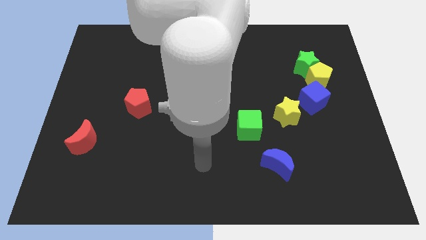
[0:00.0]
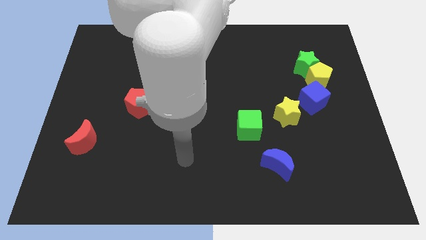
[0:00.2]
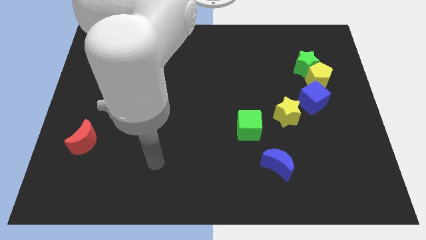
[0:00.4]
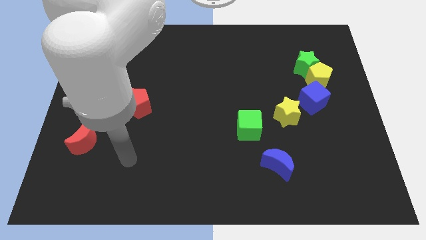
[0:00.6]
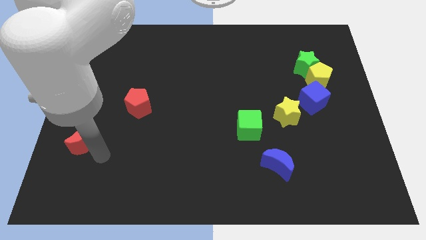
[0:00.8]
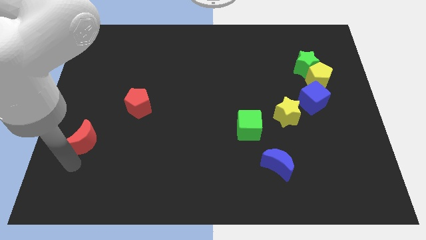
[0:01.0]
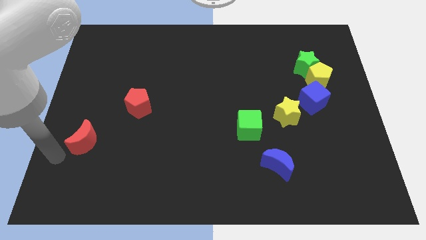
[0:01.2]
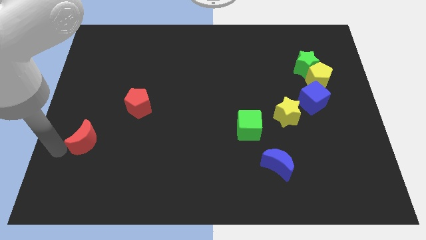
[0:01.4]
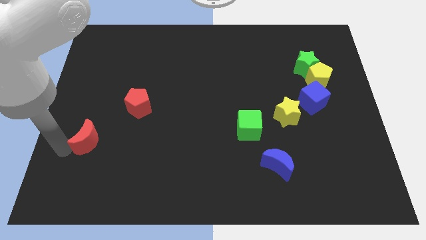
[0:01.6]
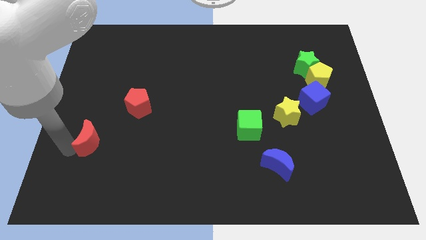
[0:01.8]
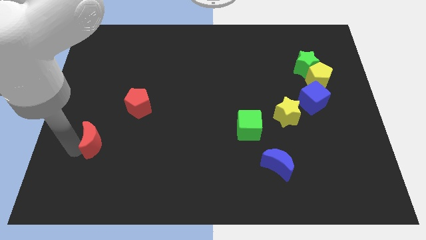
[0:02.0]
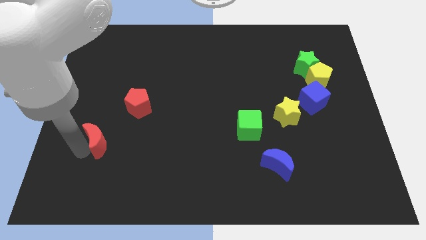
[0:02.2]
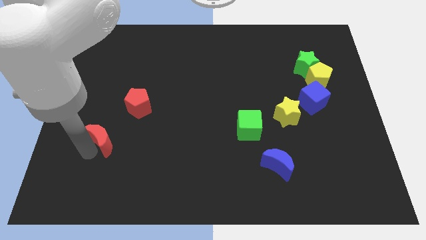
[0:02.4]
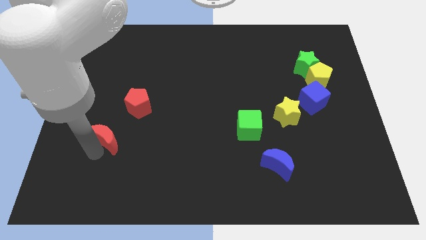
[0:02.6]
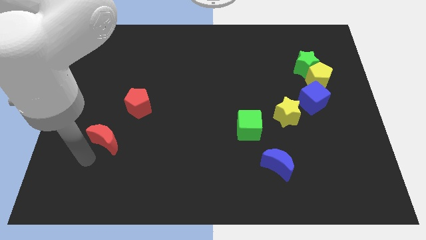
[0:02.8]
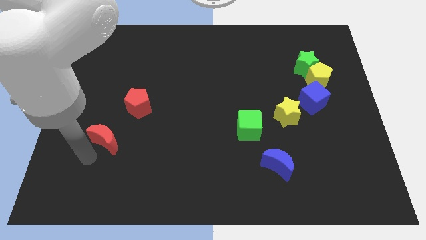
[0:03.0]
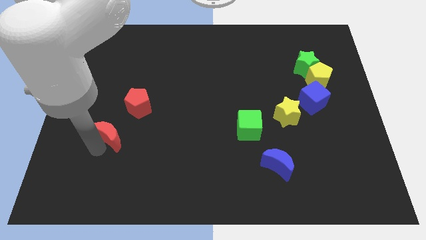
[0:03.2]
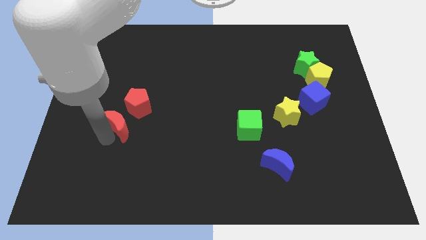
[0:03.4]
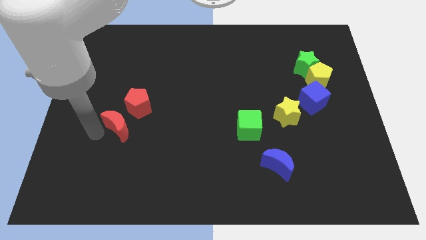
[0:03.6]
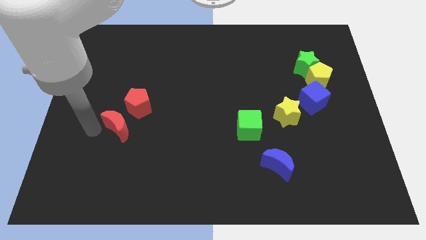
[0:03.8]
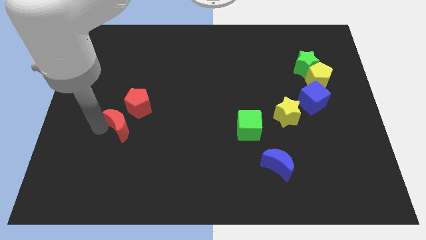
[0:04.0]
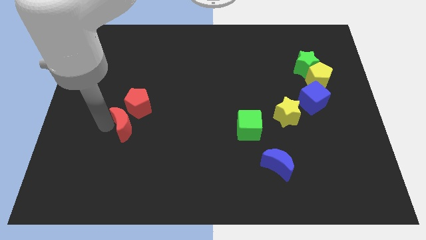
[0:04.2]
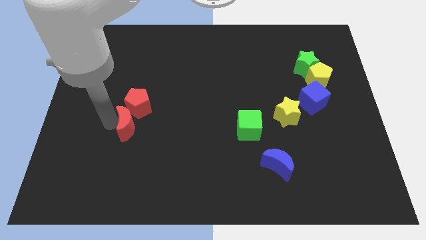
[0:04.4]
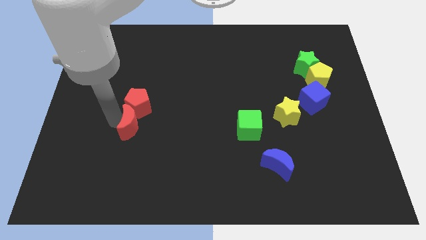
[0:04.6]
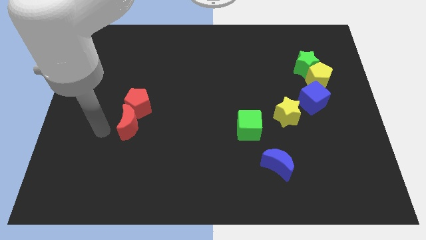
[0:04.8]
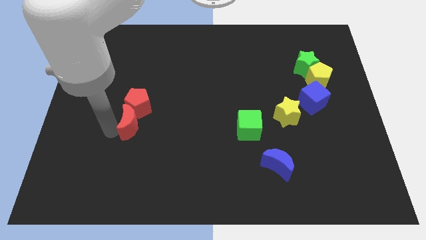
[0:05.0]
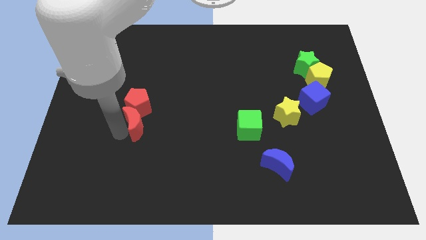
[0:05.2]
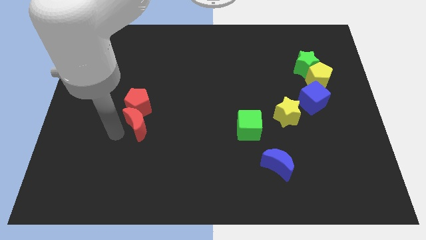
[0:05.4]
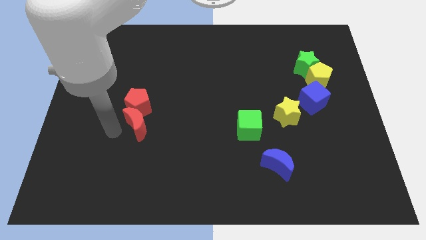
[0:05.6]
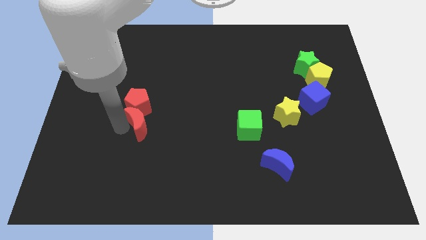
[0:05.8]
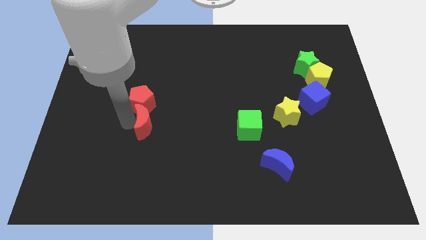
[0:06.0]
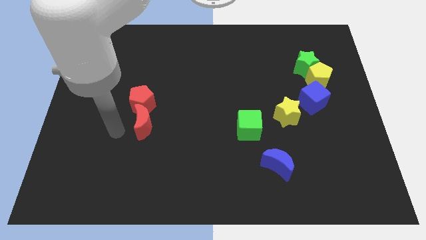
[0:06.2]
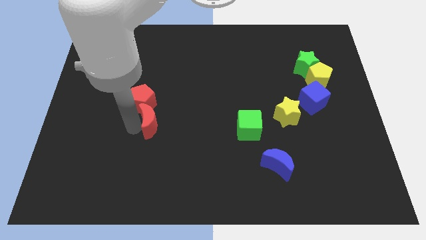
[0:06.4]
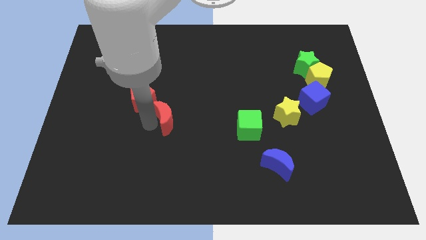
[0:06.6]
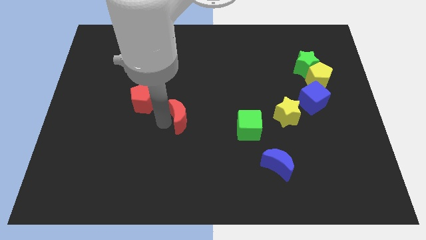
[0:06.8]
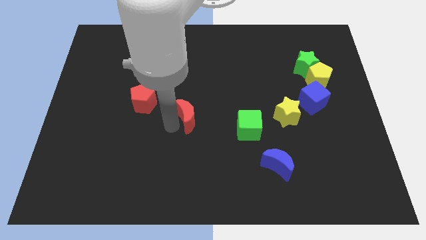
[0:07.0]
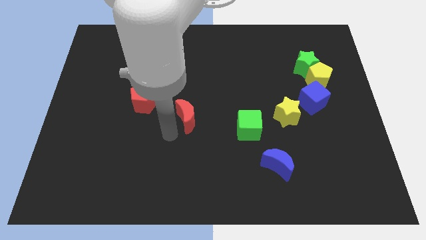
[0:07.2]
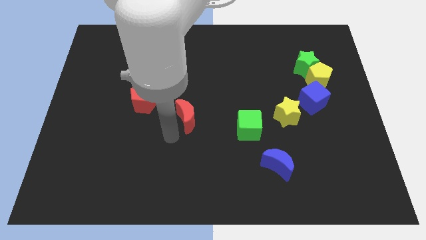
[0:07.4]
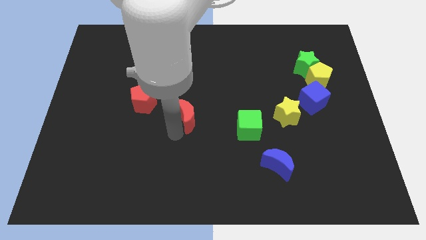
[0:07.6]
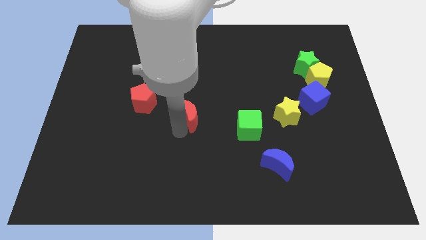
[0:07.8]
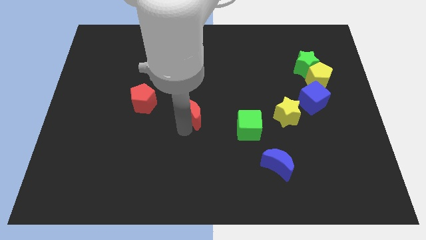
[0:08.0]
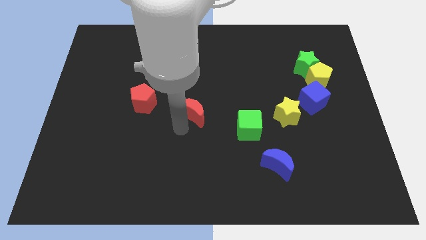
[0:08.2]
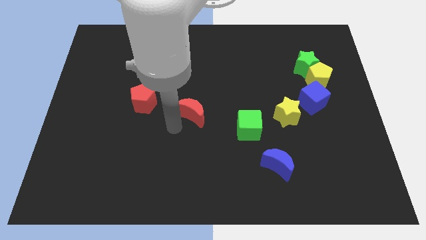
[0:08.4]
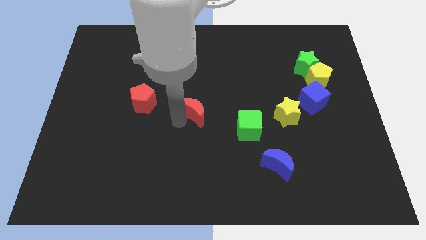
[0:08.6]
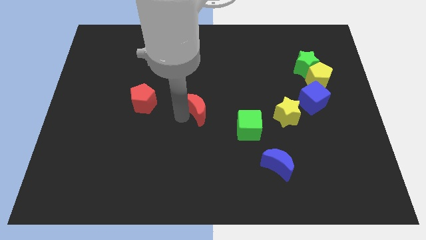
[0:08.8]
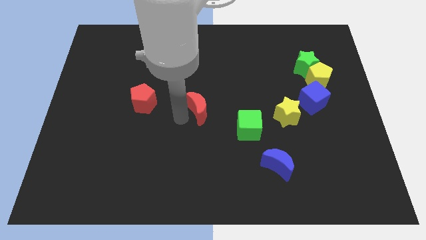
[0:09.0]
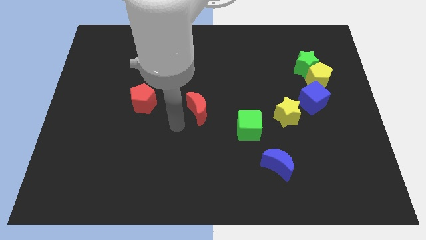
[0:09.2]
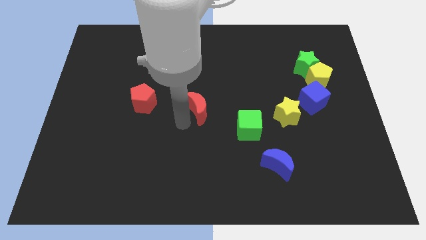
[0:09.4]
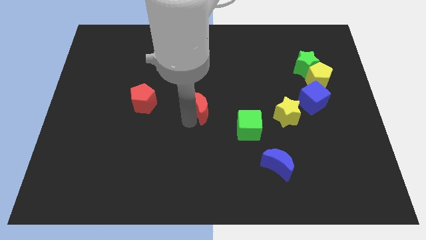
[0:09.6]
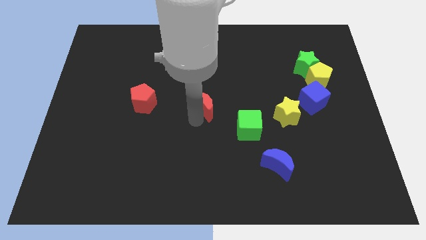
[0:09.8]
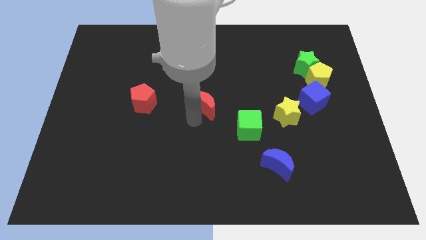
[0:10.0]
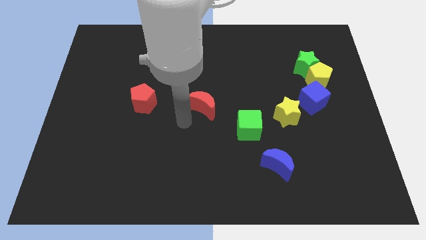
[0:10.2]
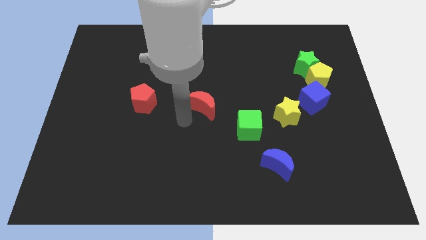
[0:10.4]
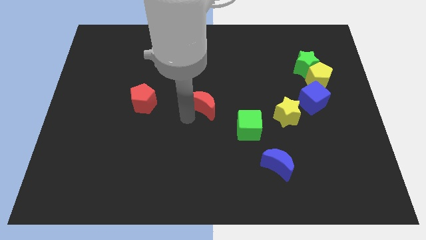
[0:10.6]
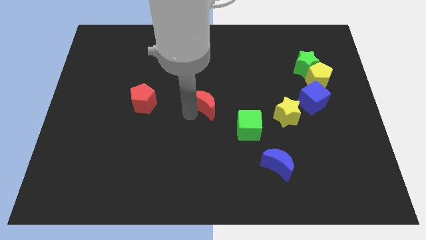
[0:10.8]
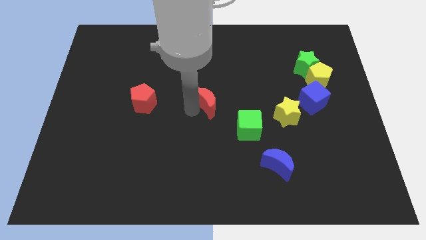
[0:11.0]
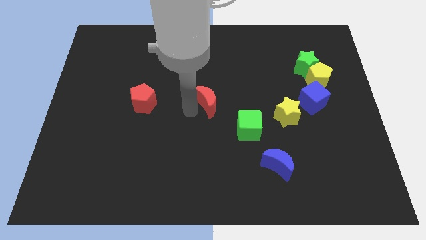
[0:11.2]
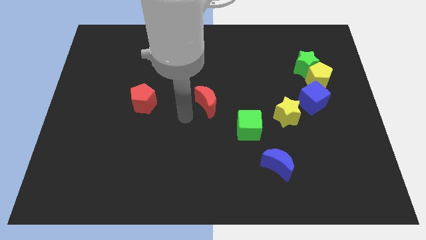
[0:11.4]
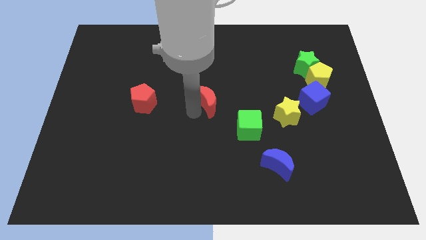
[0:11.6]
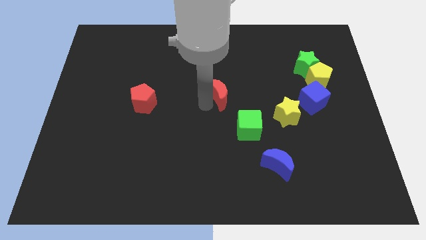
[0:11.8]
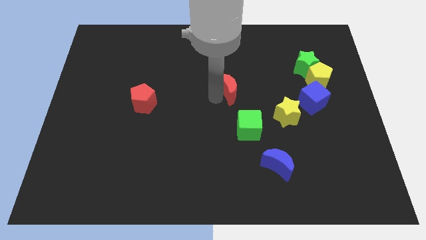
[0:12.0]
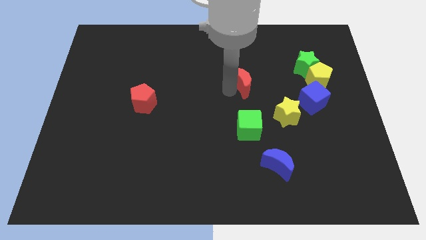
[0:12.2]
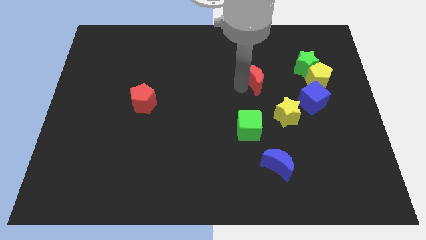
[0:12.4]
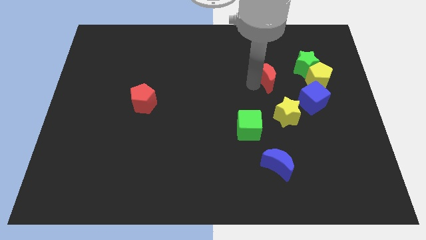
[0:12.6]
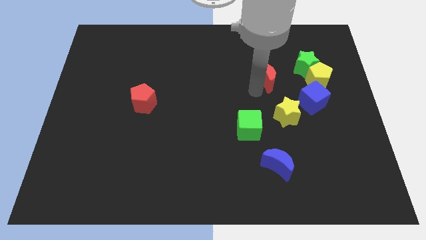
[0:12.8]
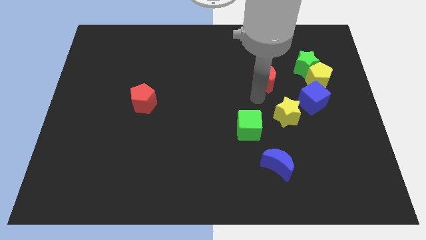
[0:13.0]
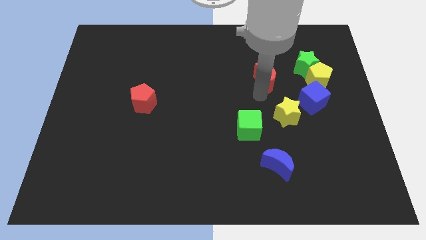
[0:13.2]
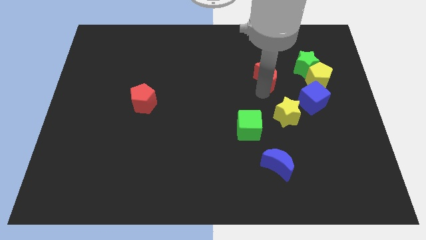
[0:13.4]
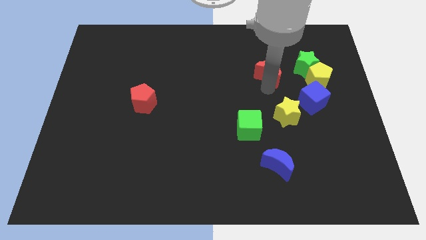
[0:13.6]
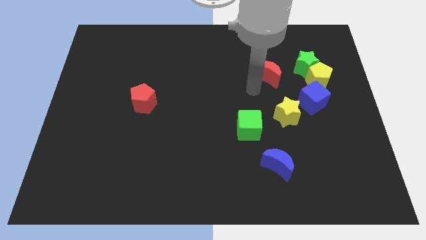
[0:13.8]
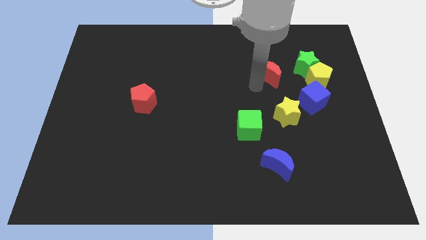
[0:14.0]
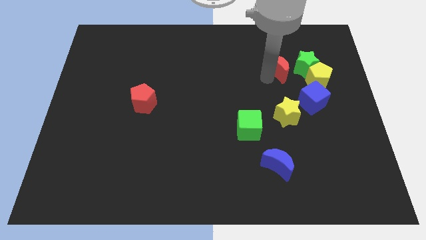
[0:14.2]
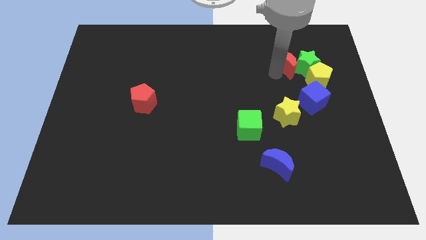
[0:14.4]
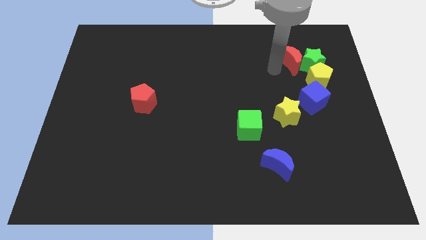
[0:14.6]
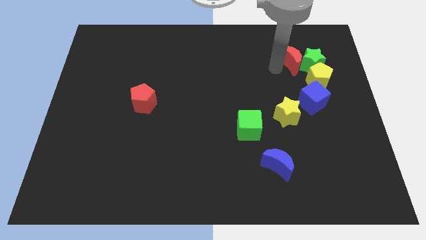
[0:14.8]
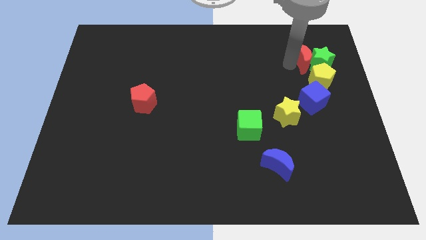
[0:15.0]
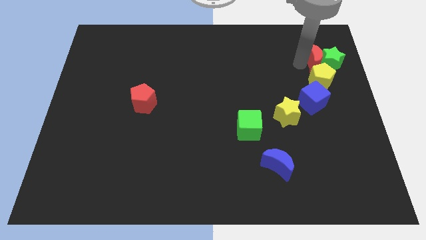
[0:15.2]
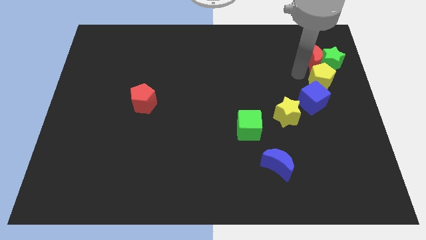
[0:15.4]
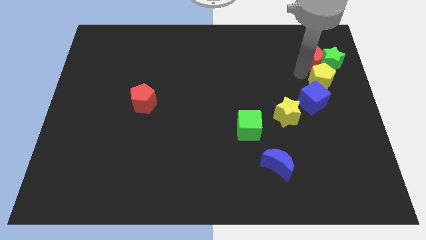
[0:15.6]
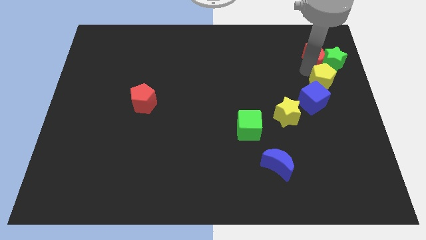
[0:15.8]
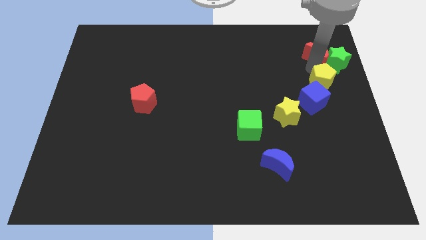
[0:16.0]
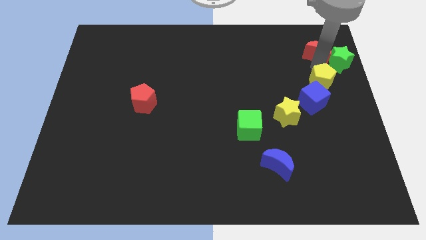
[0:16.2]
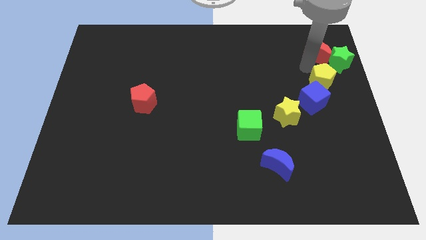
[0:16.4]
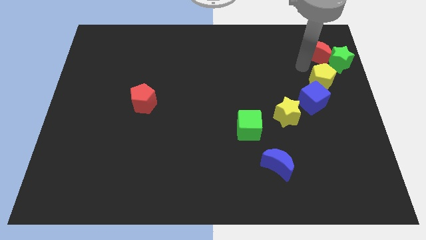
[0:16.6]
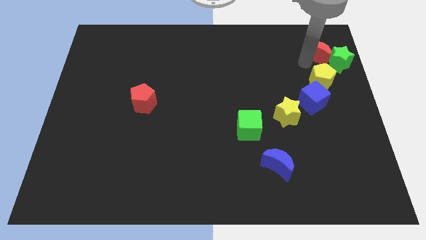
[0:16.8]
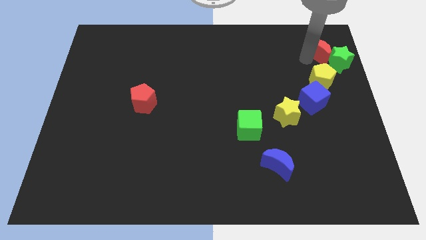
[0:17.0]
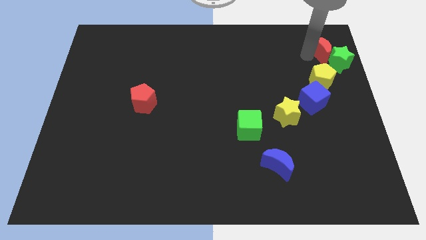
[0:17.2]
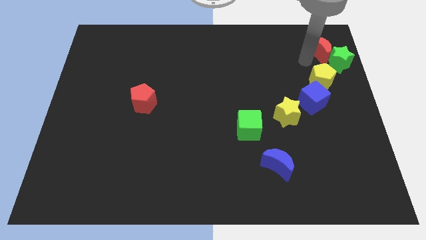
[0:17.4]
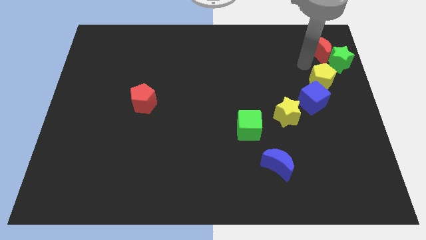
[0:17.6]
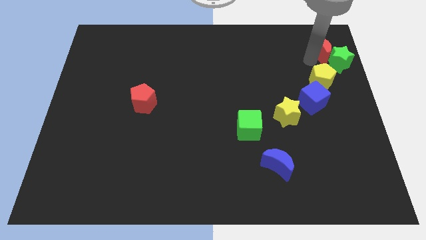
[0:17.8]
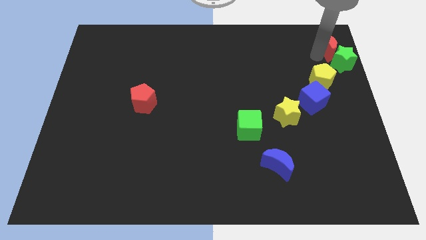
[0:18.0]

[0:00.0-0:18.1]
slide the red moon to the top right
